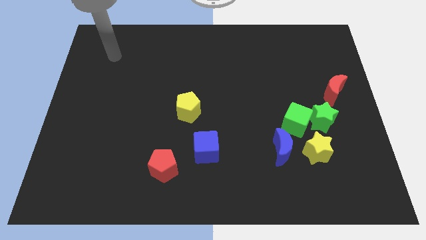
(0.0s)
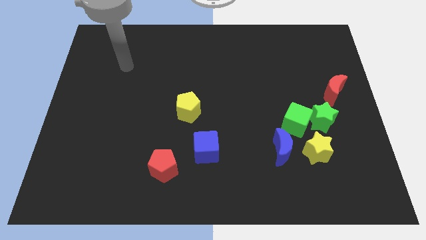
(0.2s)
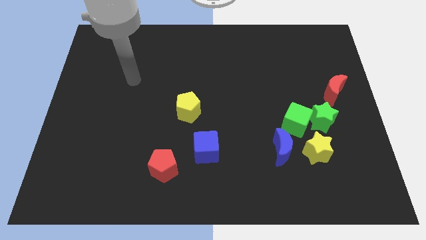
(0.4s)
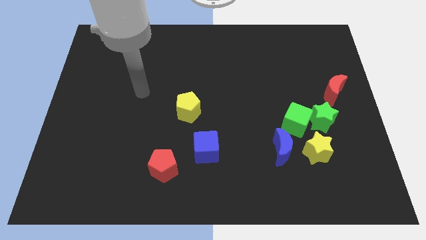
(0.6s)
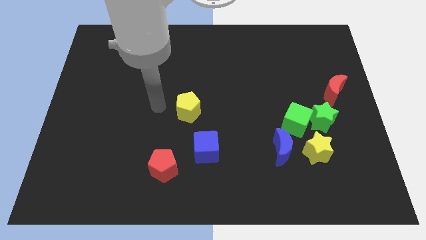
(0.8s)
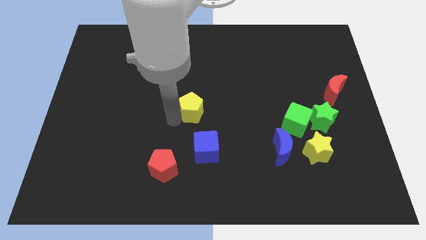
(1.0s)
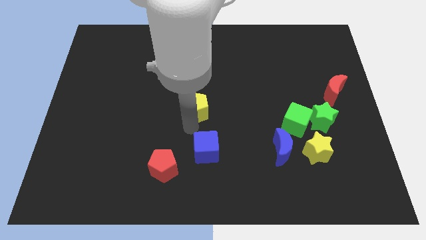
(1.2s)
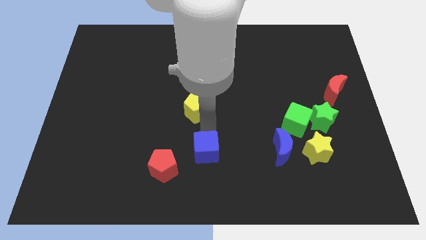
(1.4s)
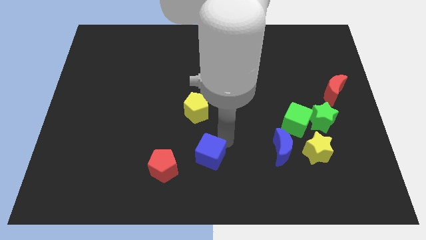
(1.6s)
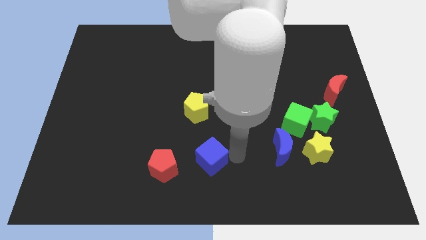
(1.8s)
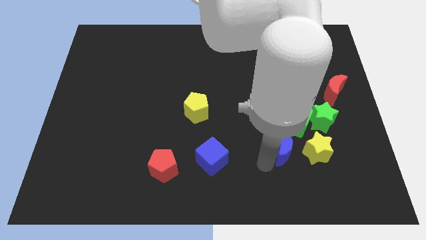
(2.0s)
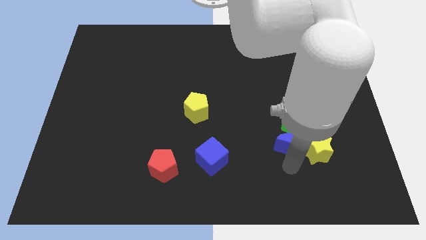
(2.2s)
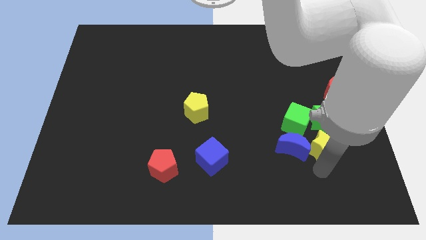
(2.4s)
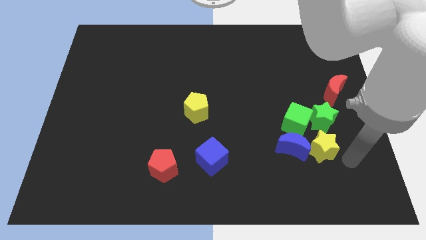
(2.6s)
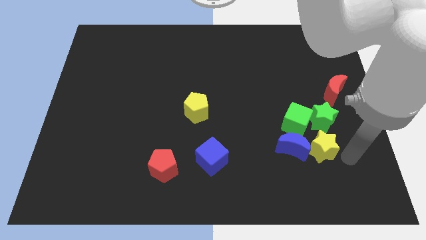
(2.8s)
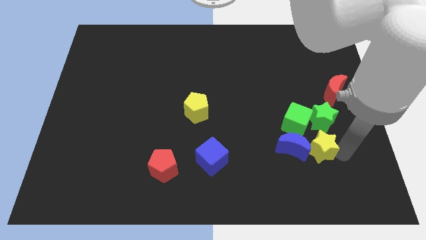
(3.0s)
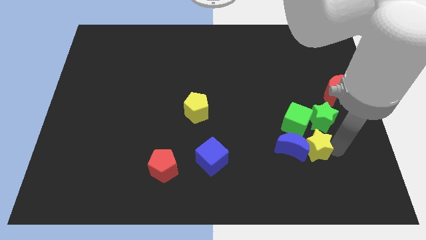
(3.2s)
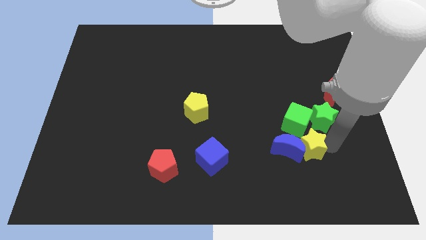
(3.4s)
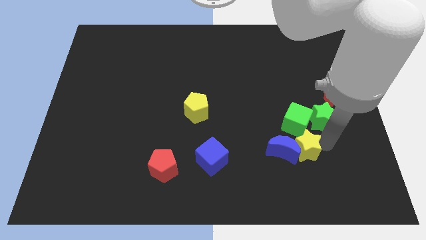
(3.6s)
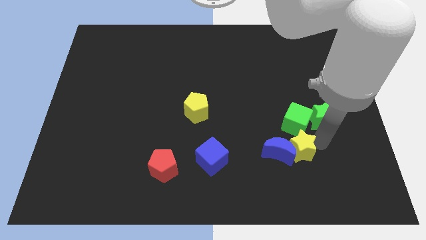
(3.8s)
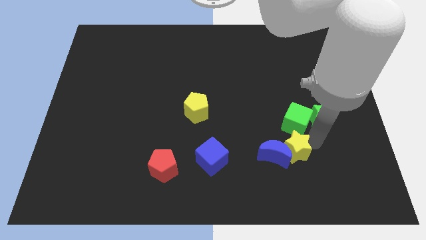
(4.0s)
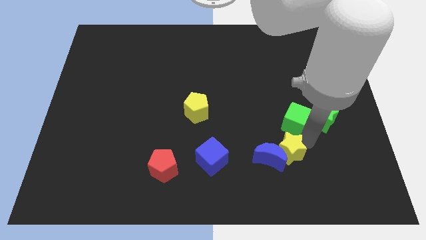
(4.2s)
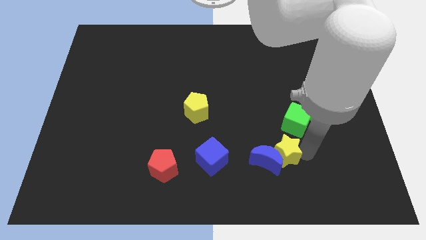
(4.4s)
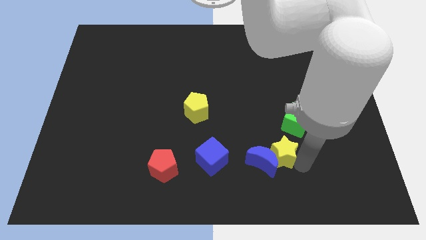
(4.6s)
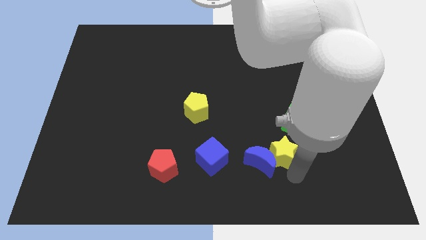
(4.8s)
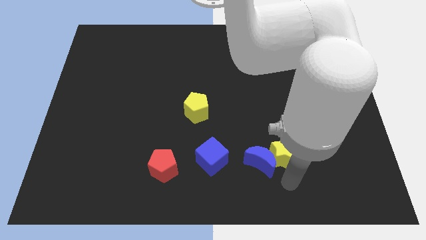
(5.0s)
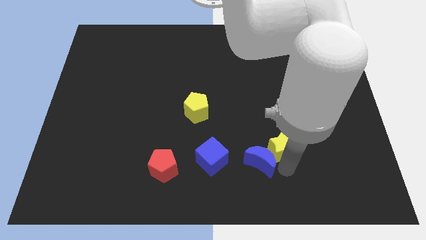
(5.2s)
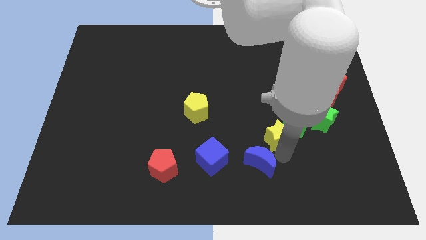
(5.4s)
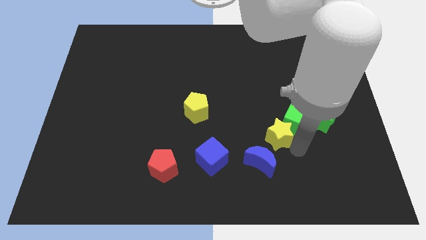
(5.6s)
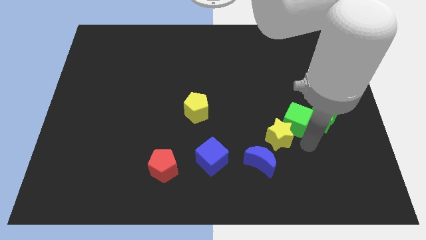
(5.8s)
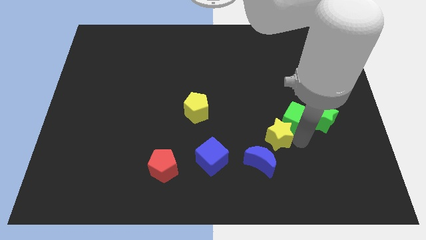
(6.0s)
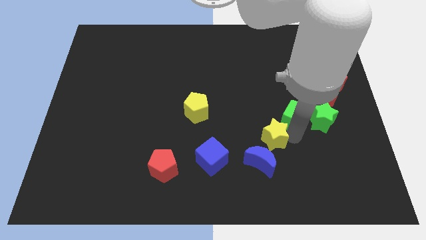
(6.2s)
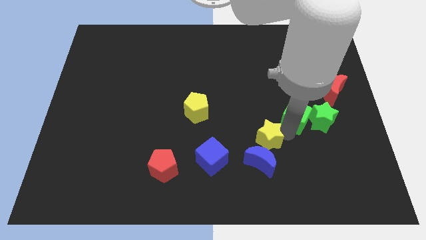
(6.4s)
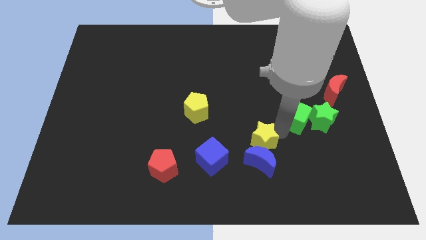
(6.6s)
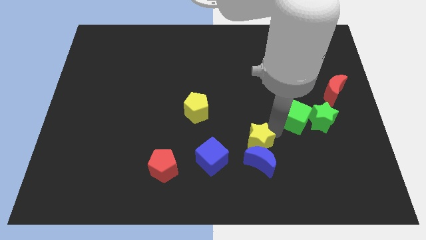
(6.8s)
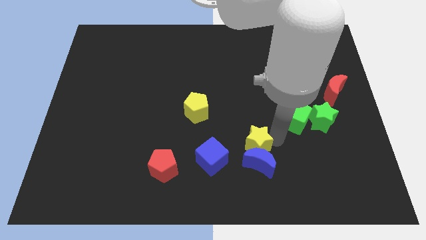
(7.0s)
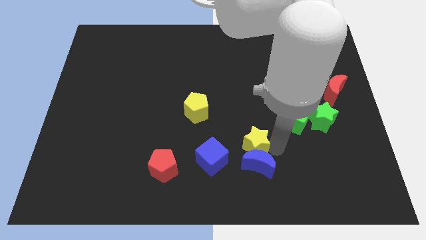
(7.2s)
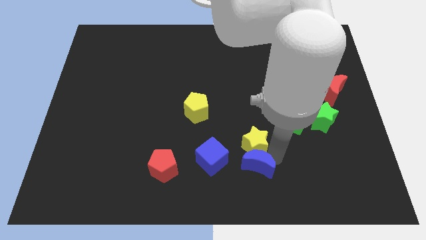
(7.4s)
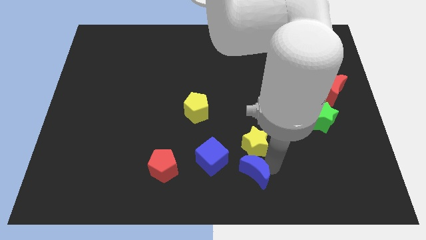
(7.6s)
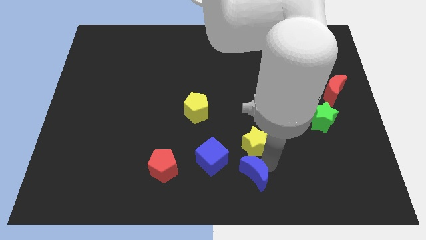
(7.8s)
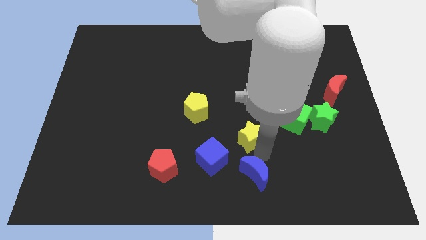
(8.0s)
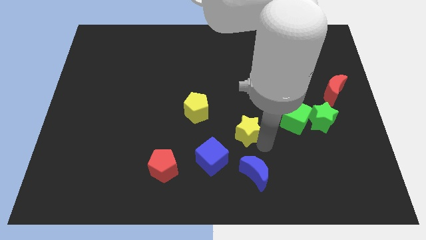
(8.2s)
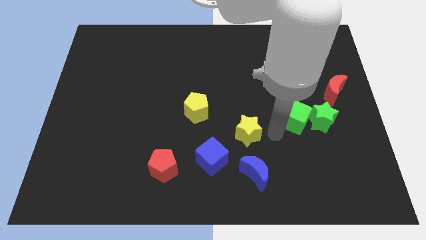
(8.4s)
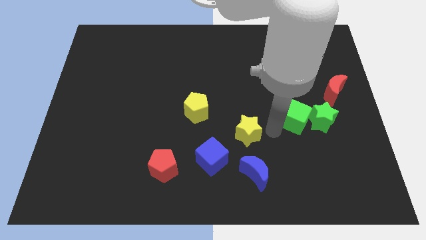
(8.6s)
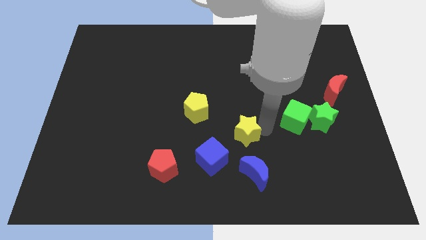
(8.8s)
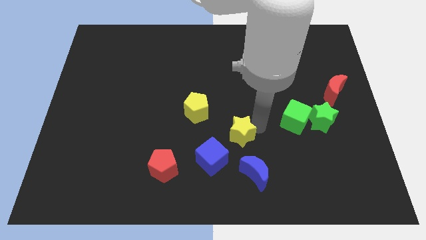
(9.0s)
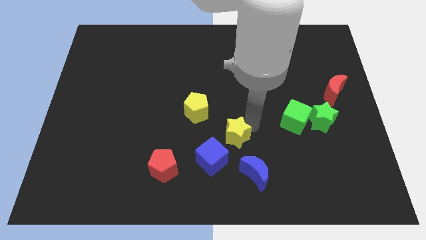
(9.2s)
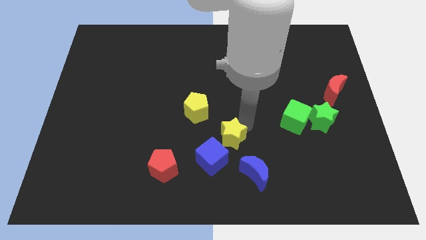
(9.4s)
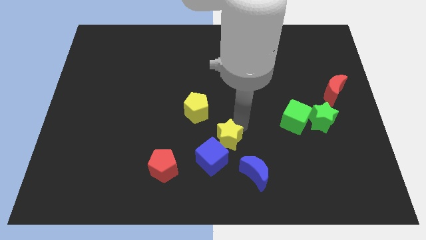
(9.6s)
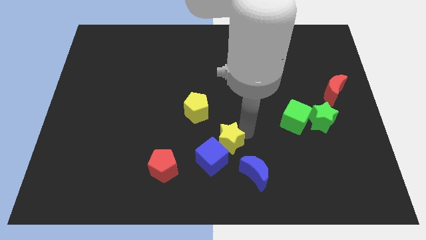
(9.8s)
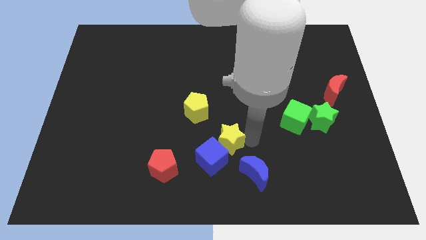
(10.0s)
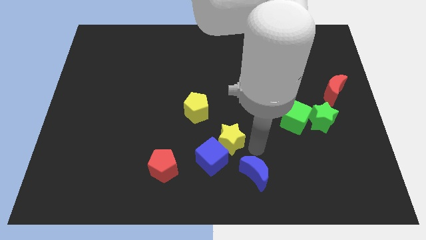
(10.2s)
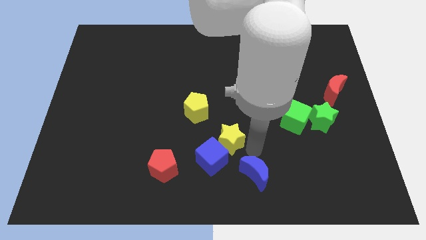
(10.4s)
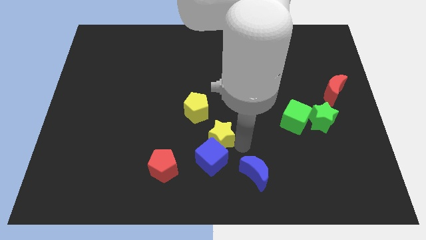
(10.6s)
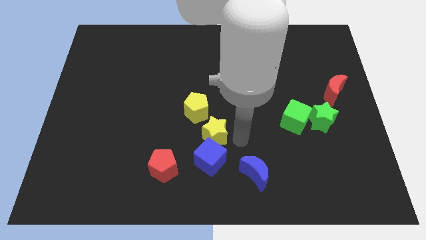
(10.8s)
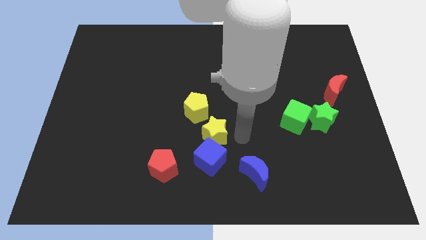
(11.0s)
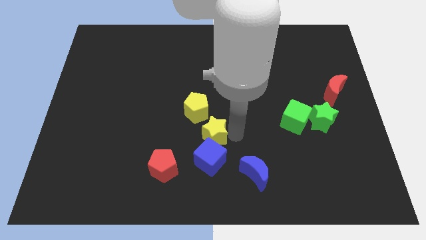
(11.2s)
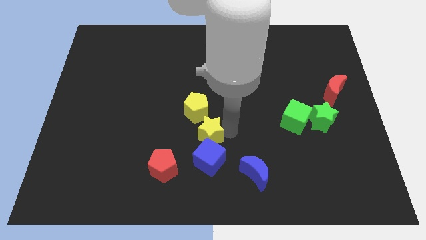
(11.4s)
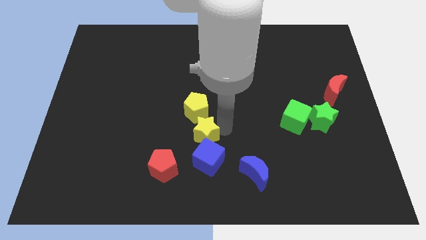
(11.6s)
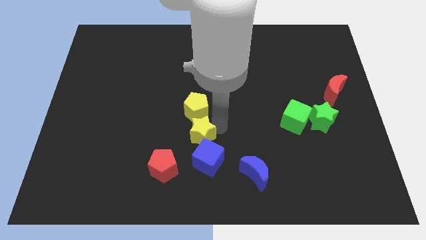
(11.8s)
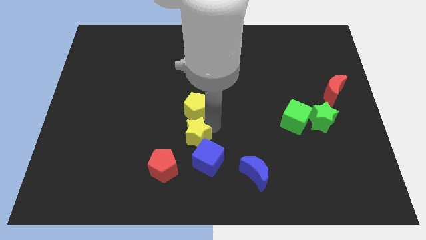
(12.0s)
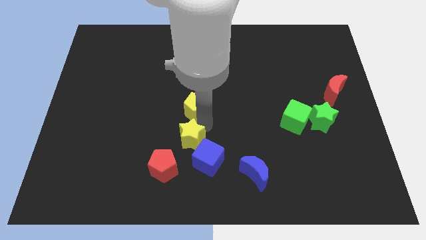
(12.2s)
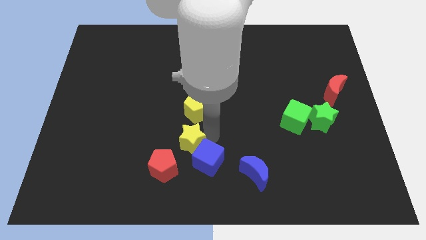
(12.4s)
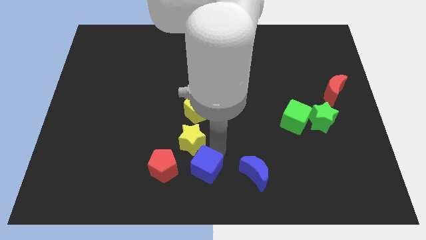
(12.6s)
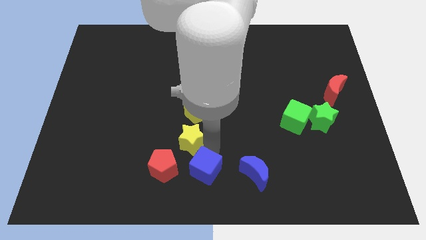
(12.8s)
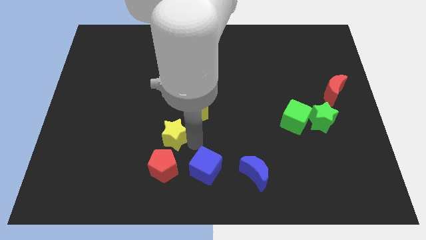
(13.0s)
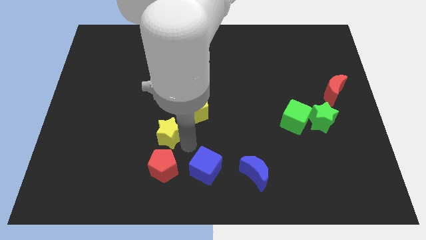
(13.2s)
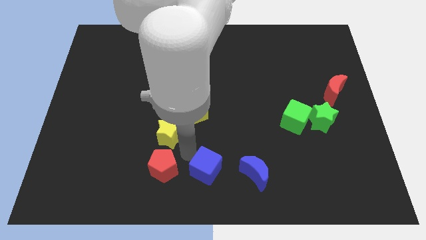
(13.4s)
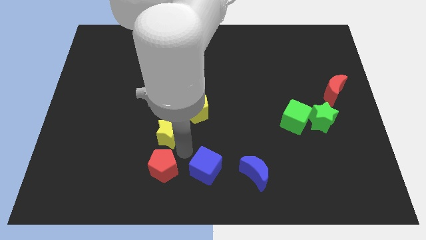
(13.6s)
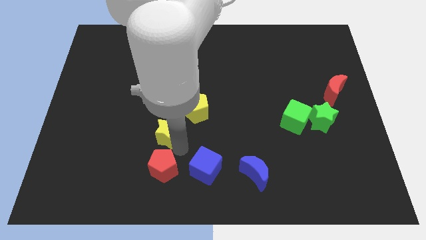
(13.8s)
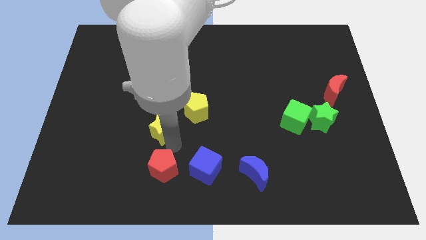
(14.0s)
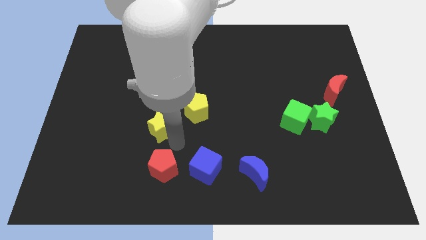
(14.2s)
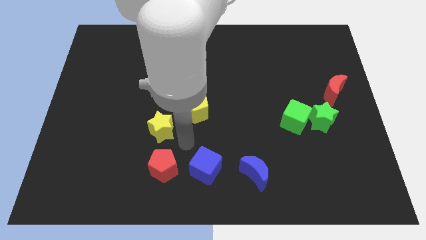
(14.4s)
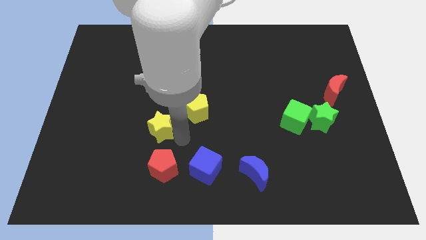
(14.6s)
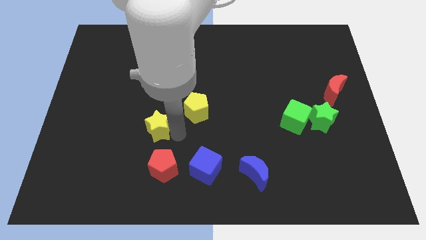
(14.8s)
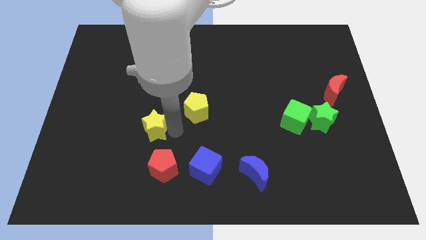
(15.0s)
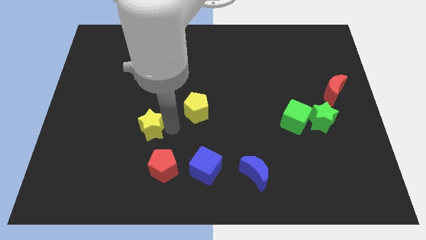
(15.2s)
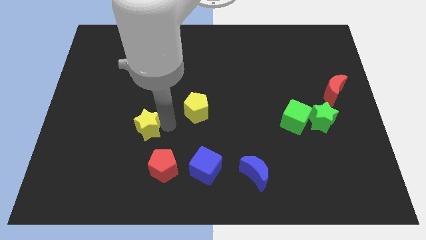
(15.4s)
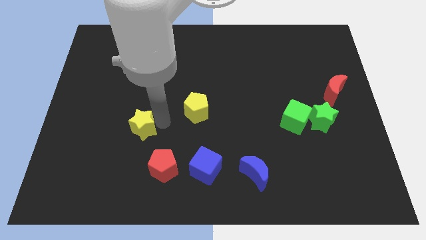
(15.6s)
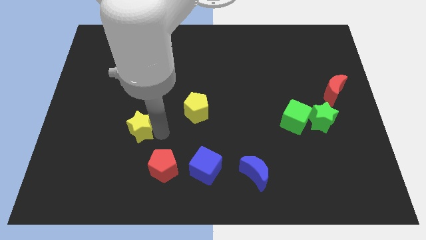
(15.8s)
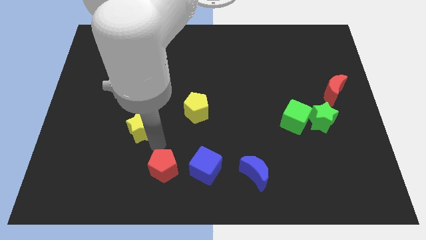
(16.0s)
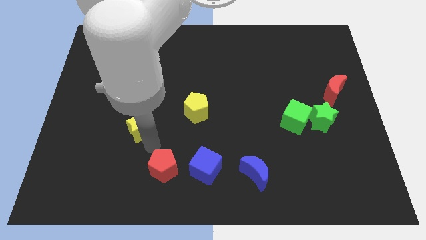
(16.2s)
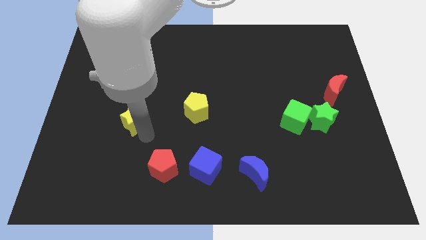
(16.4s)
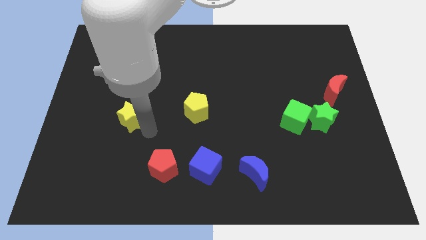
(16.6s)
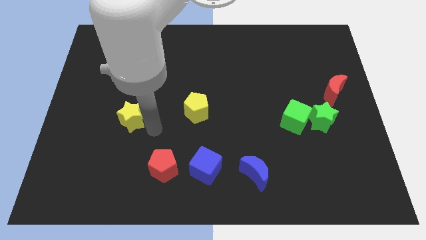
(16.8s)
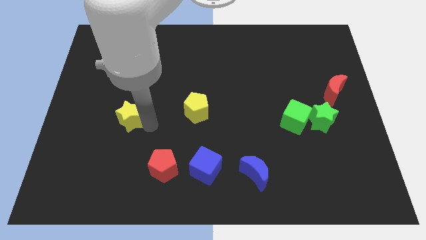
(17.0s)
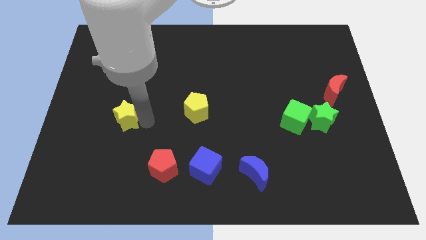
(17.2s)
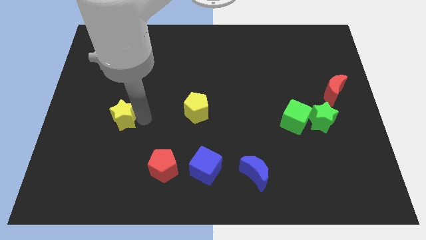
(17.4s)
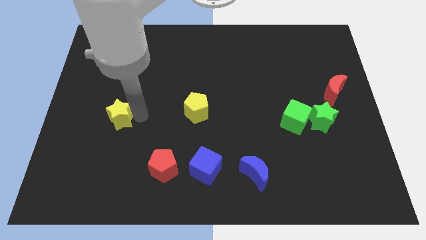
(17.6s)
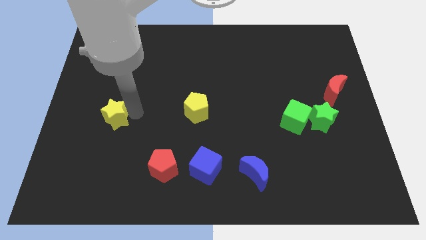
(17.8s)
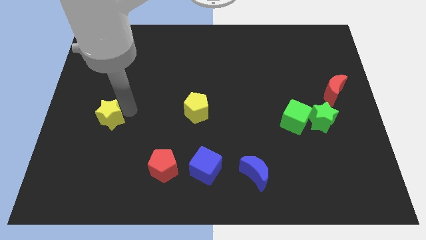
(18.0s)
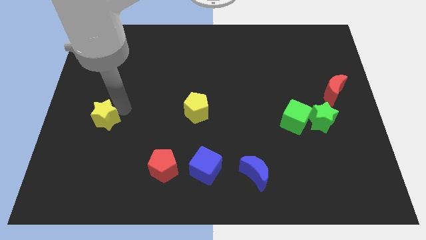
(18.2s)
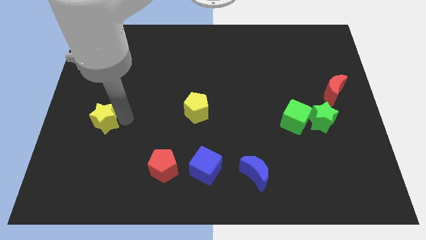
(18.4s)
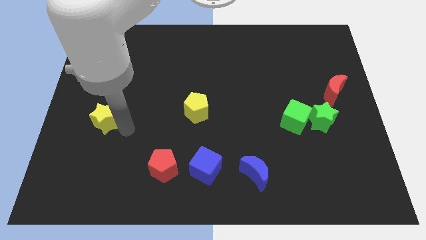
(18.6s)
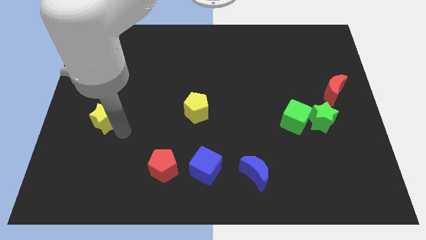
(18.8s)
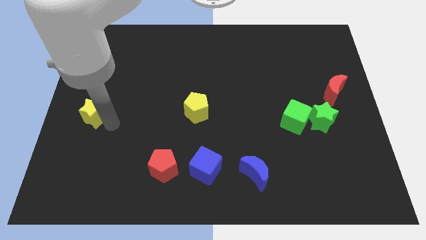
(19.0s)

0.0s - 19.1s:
move the yellow star to the left side of the board
